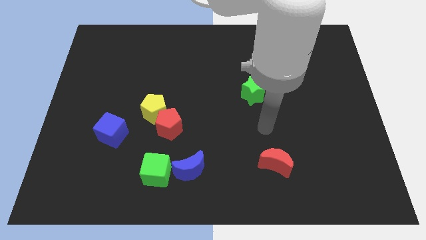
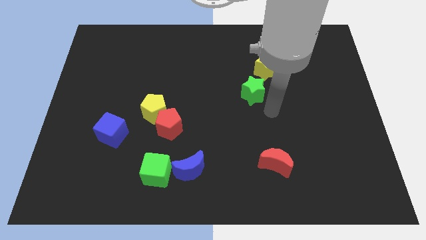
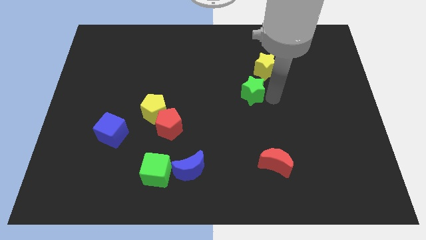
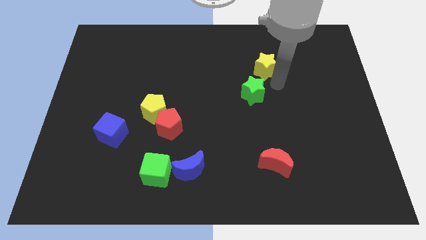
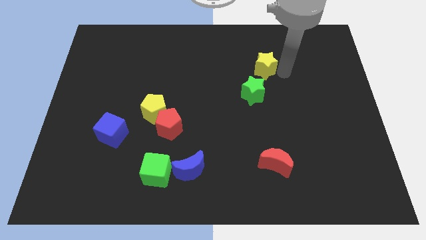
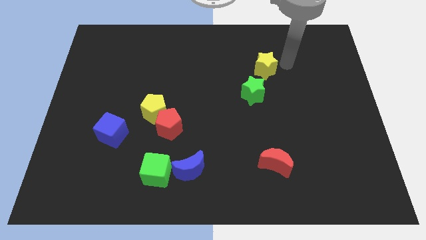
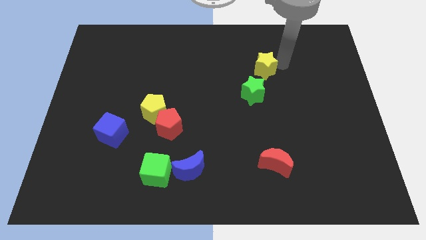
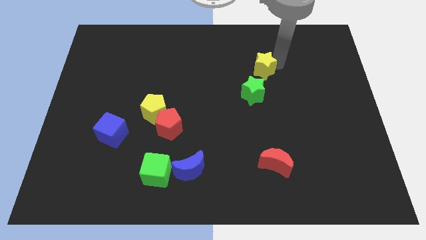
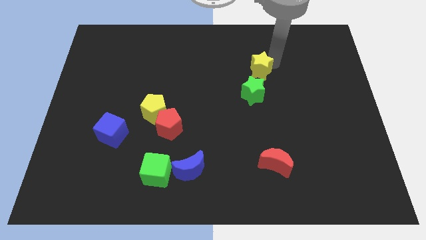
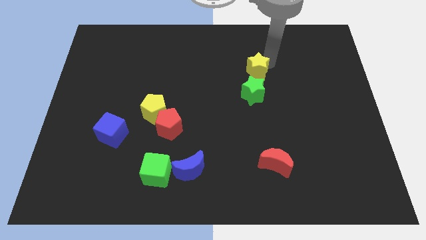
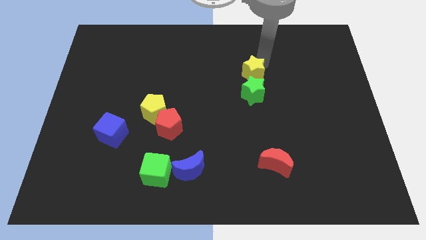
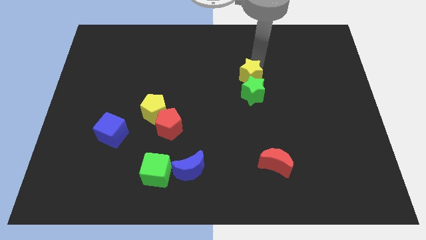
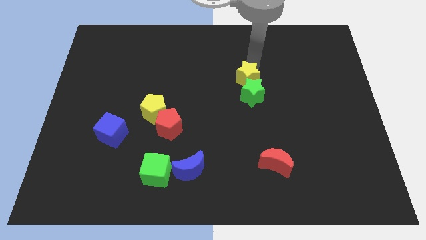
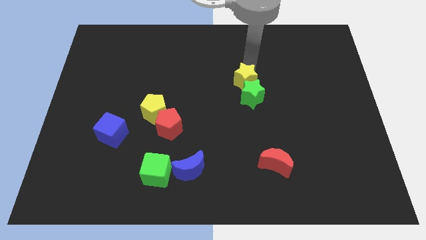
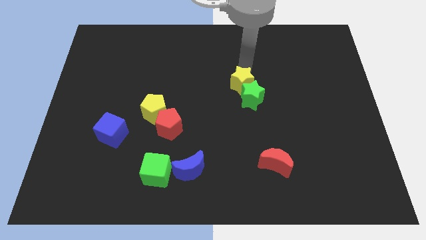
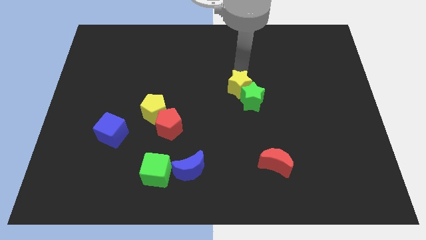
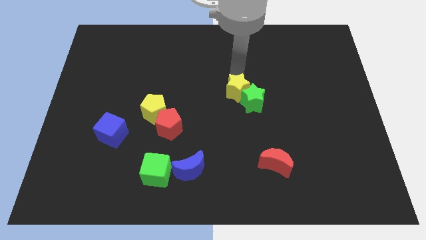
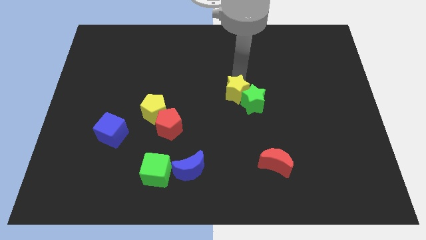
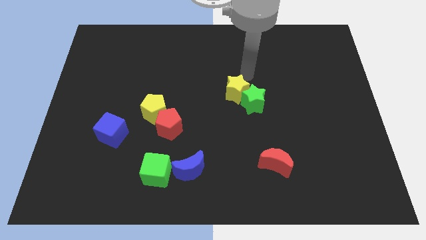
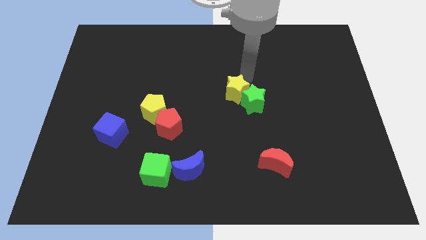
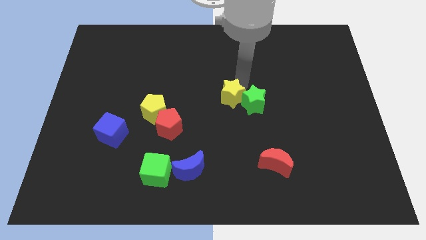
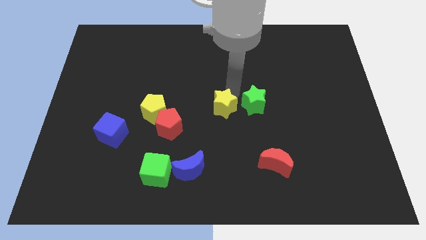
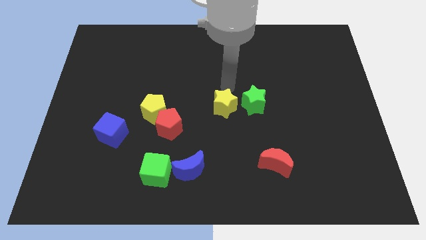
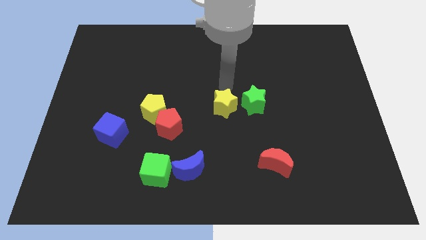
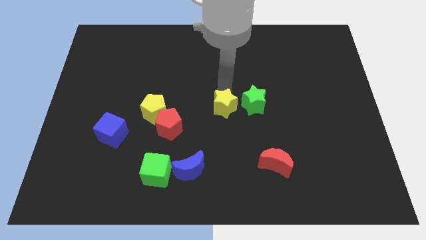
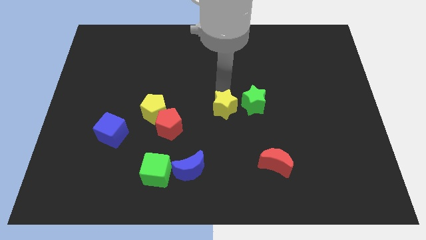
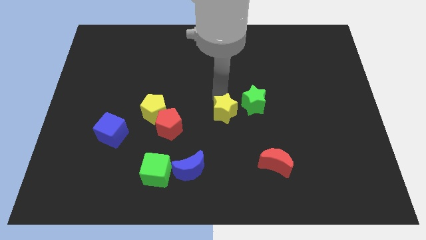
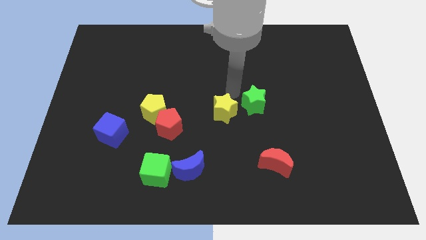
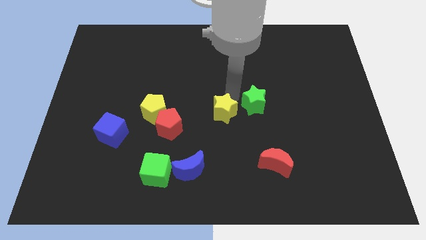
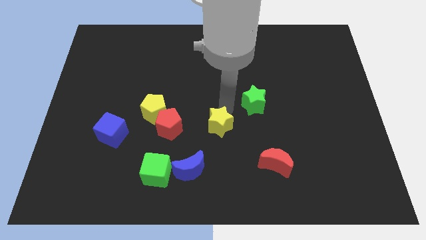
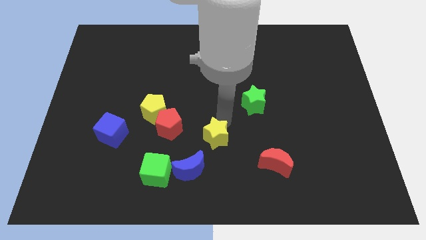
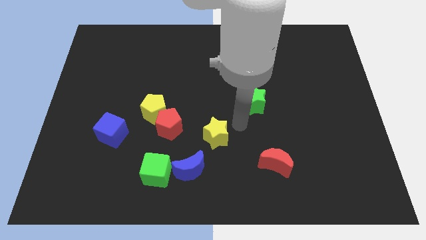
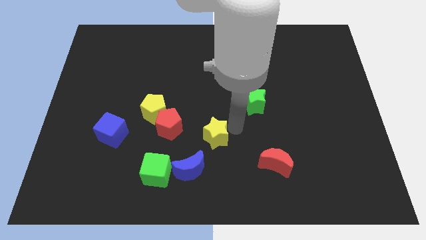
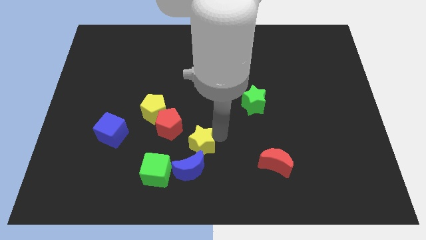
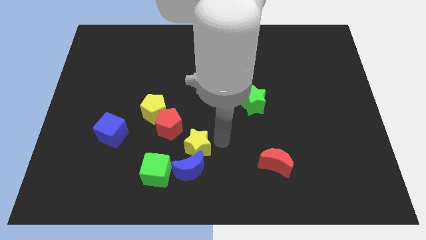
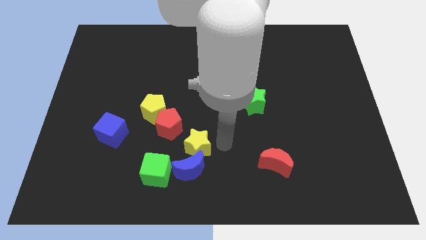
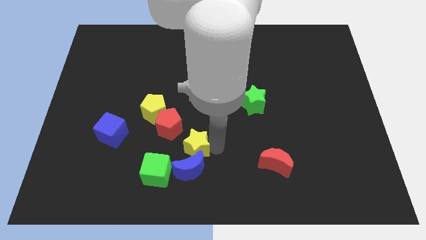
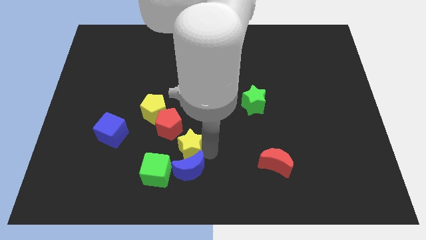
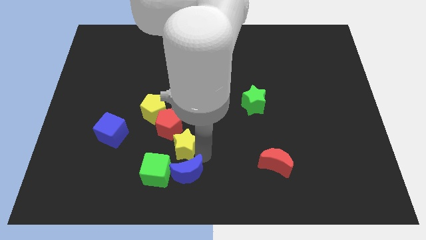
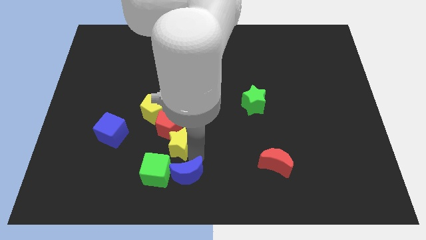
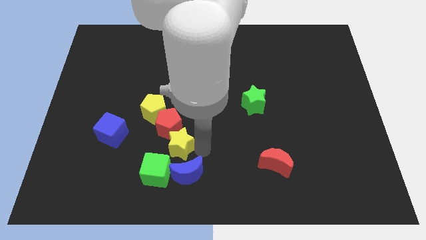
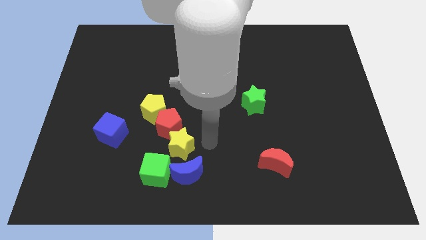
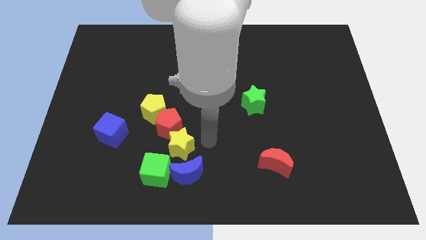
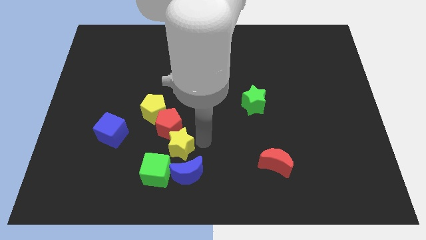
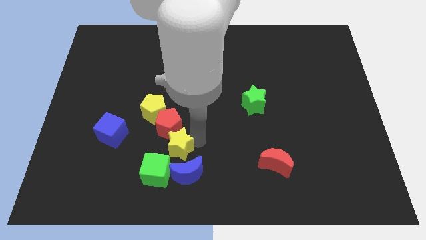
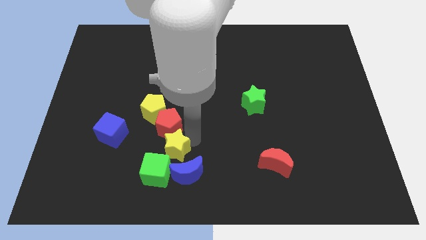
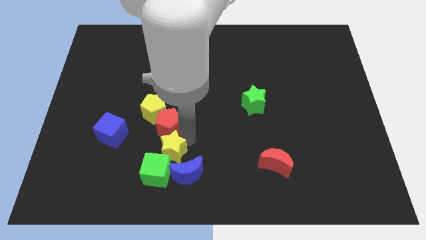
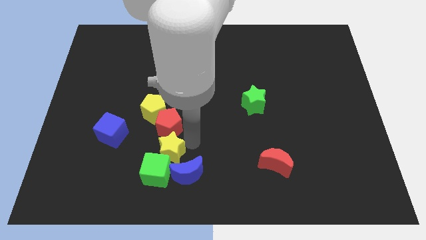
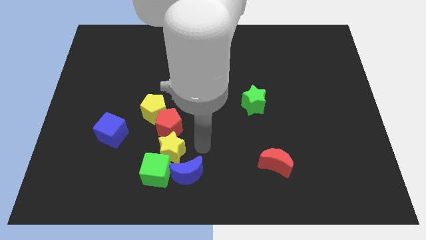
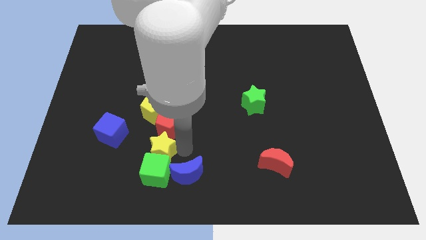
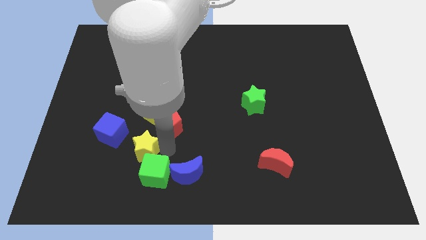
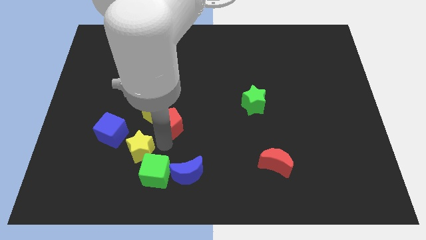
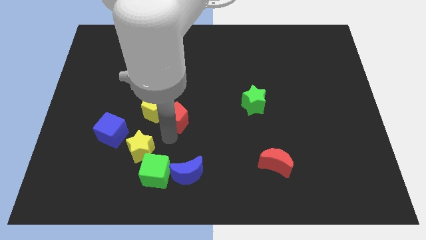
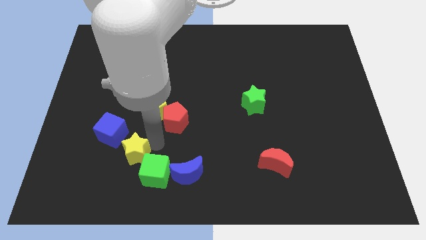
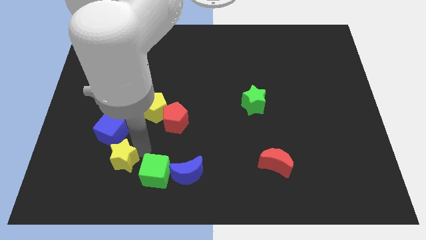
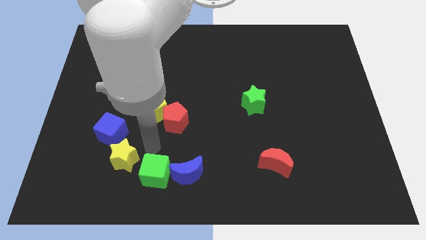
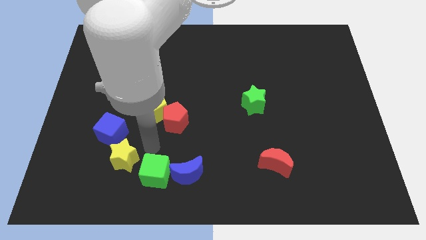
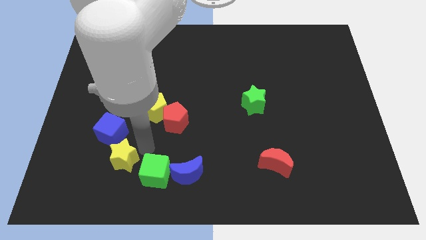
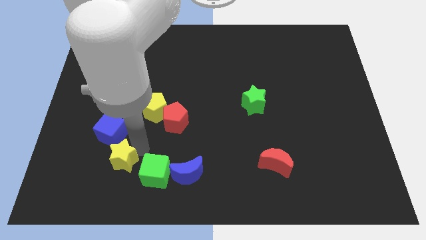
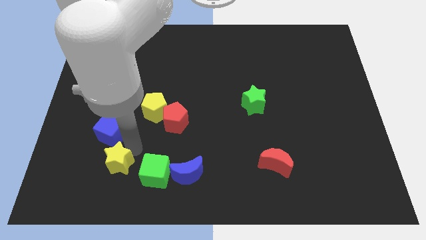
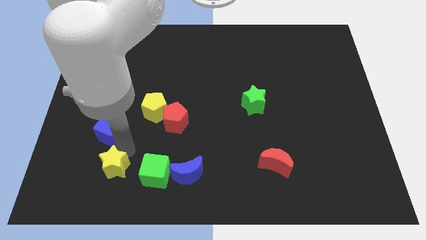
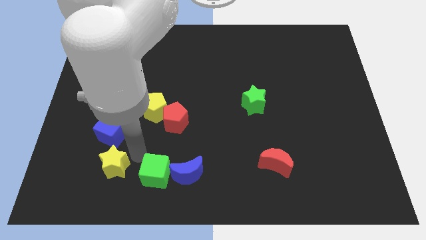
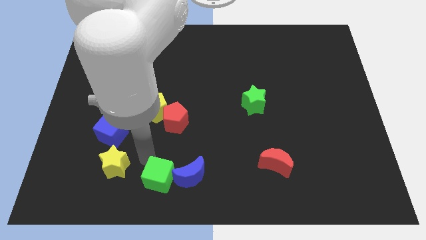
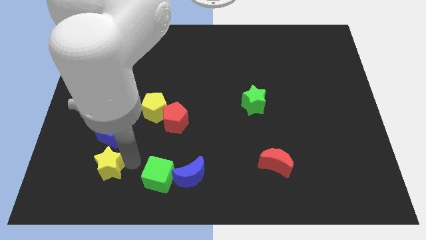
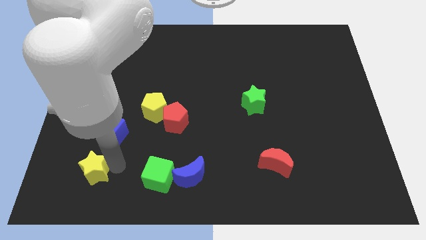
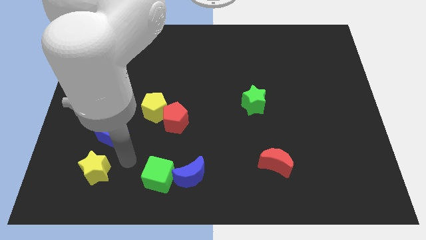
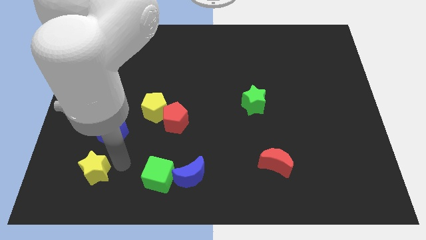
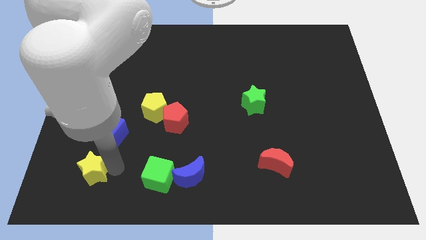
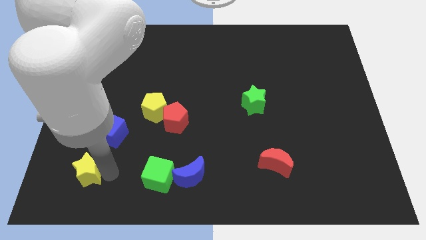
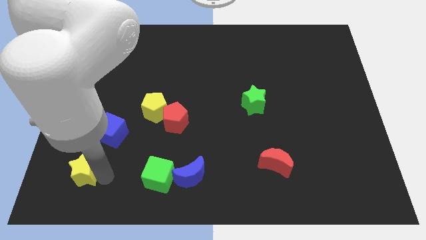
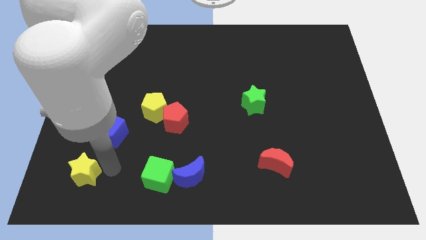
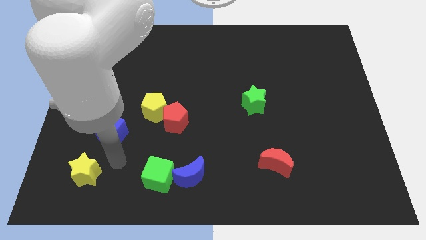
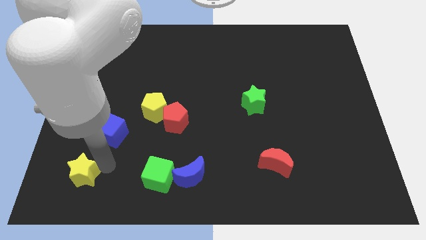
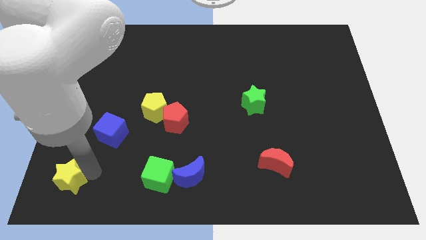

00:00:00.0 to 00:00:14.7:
put the yellow star to the bottom left corner
